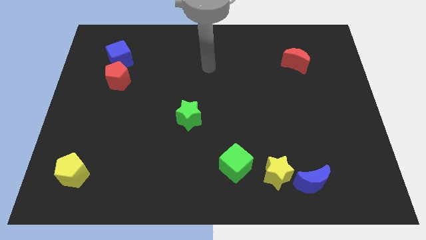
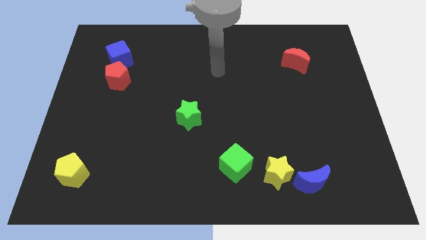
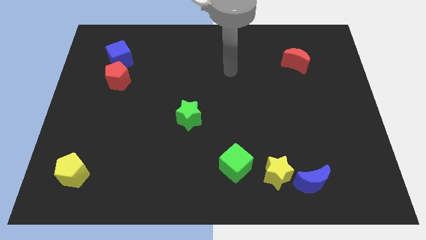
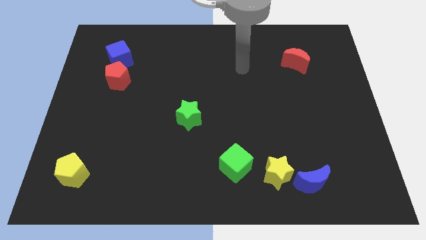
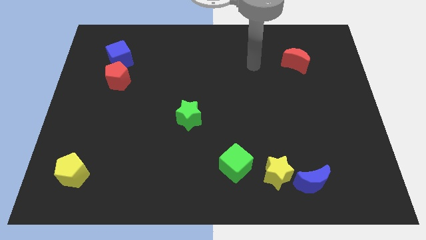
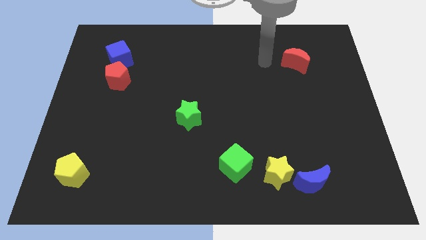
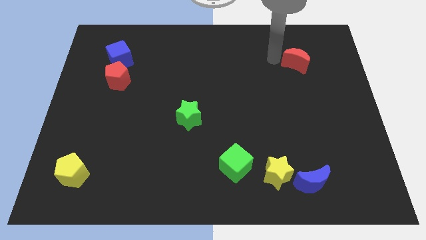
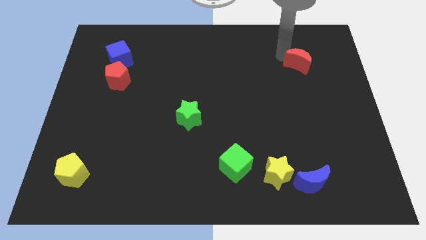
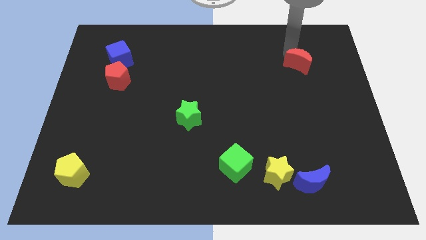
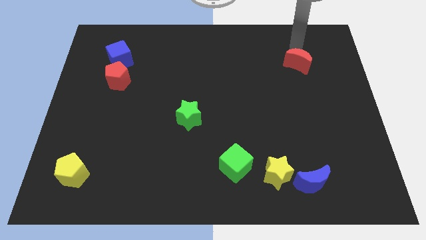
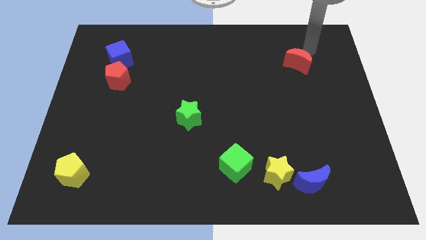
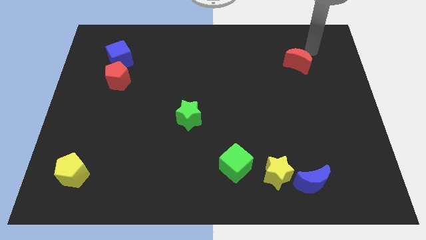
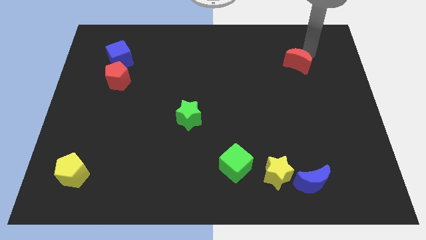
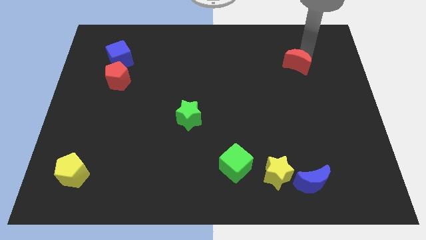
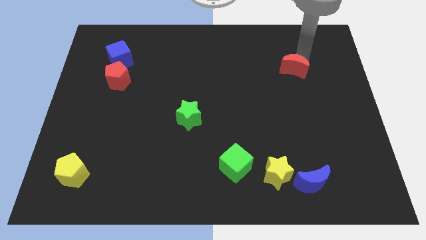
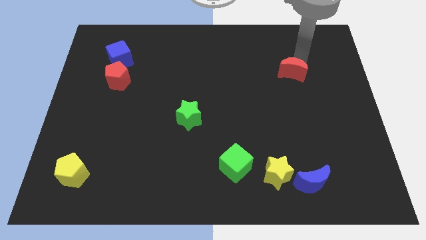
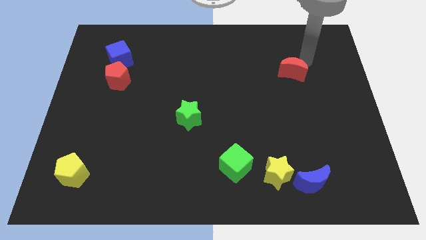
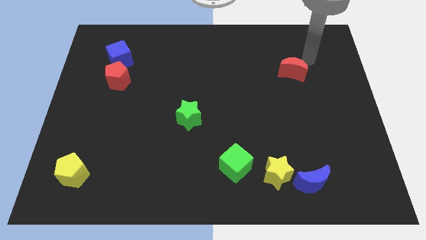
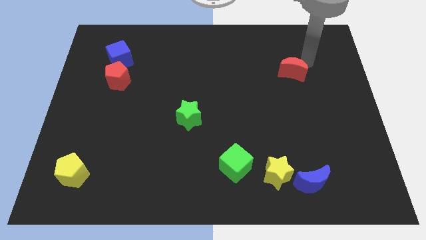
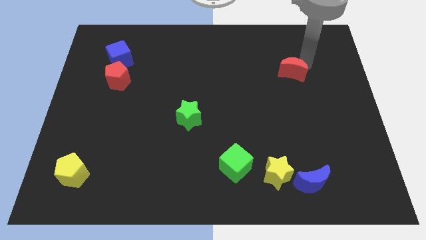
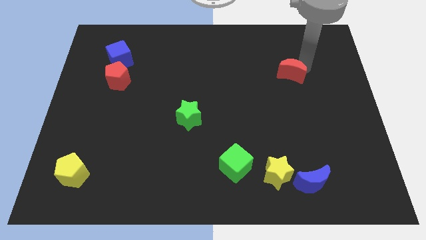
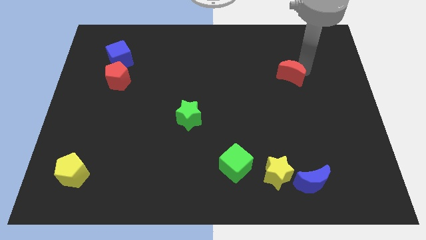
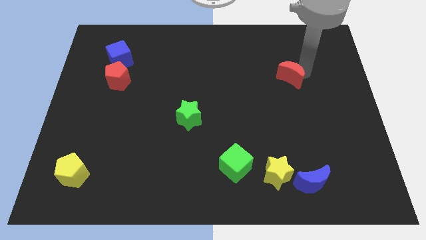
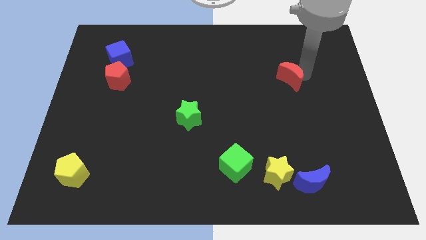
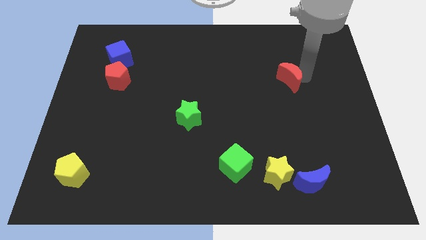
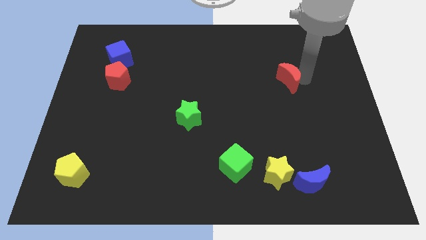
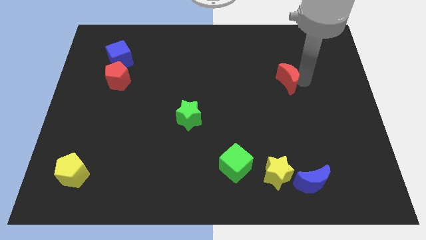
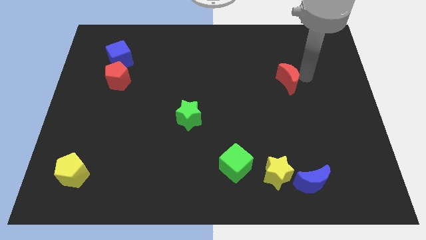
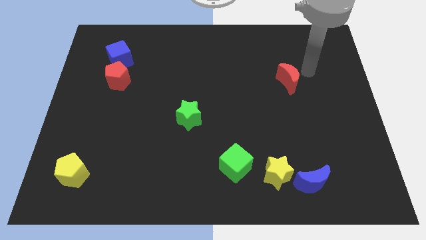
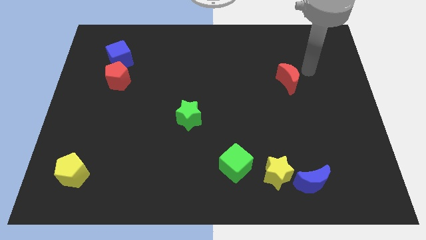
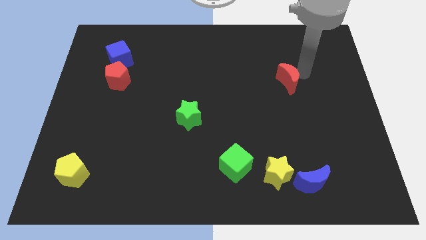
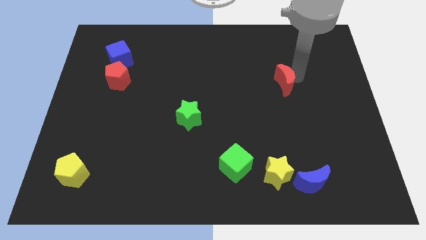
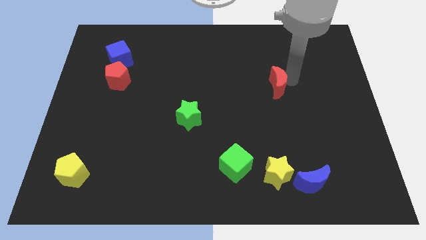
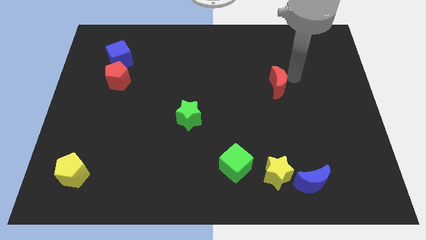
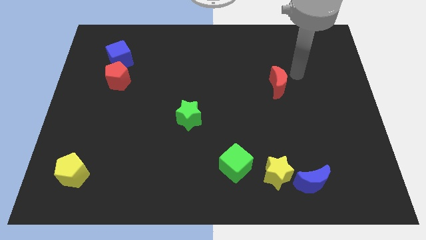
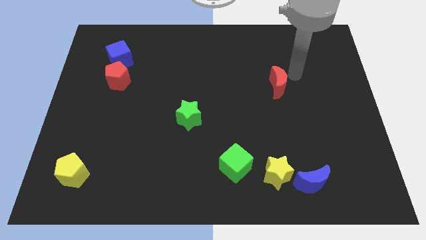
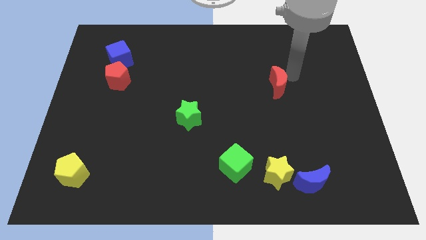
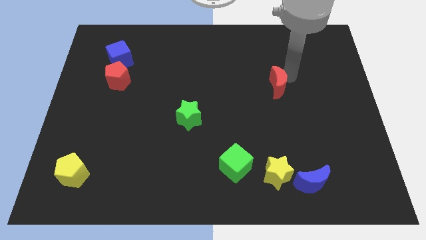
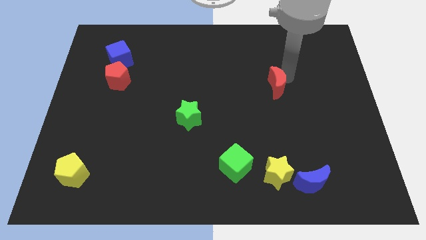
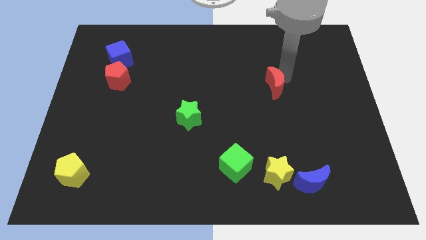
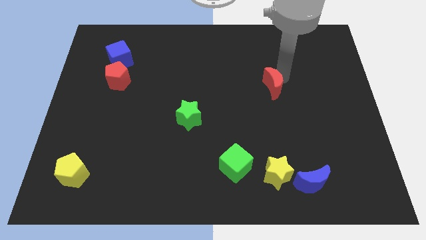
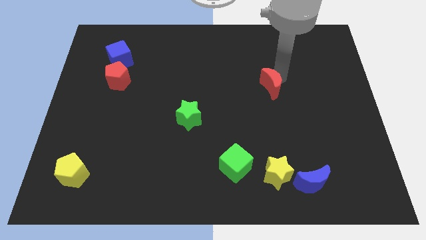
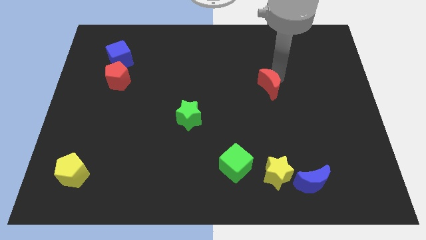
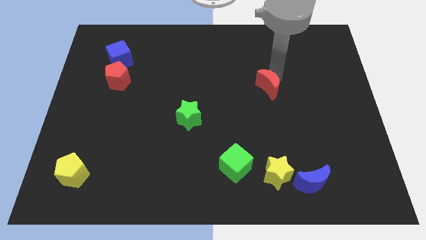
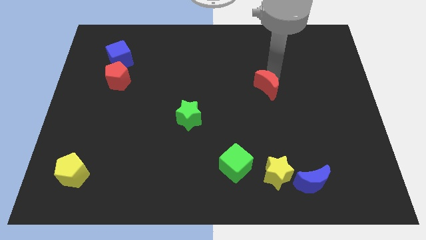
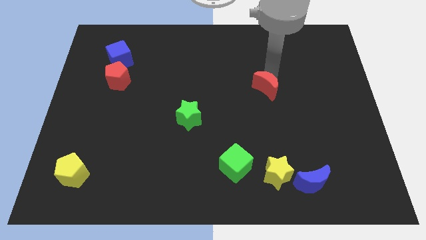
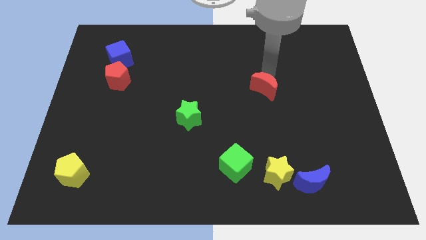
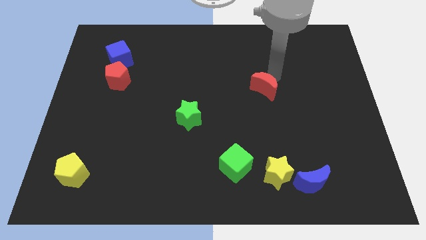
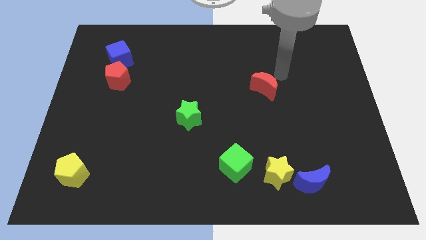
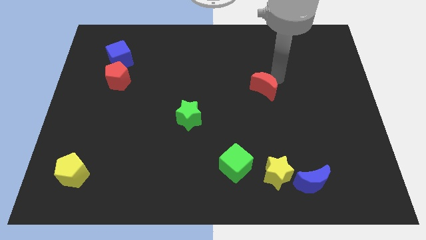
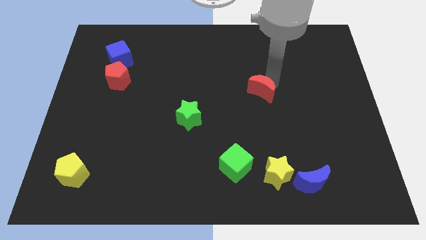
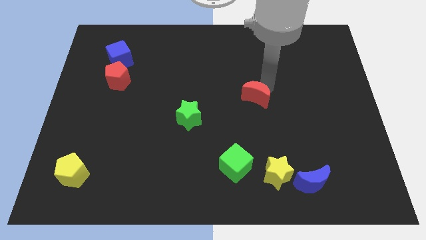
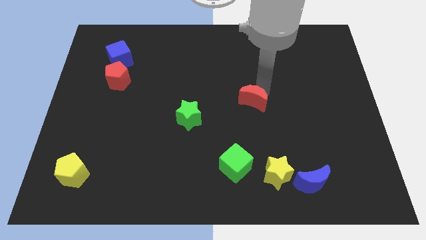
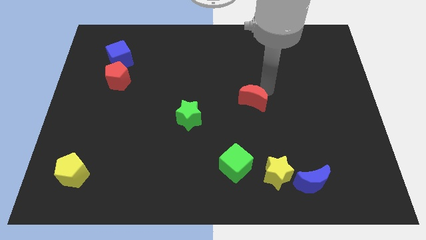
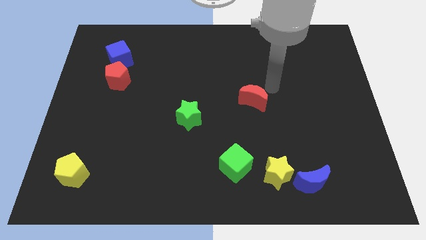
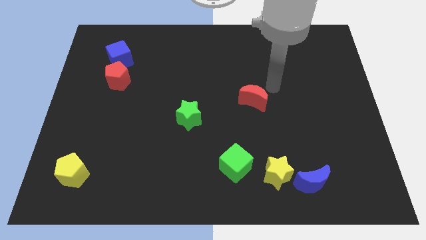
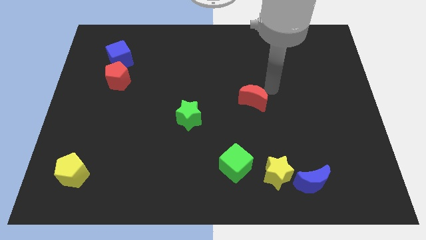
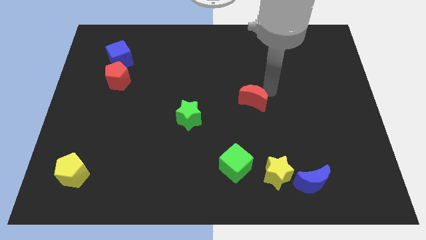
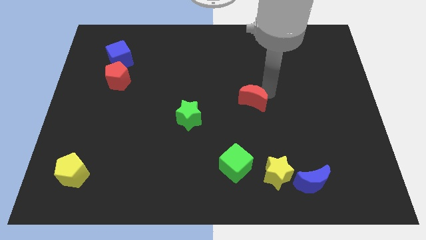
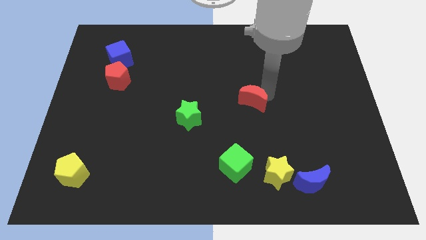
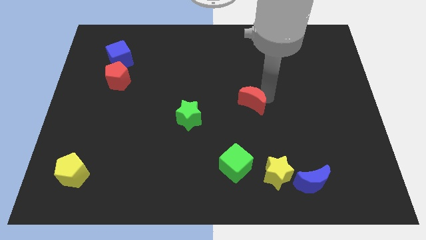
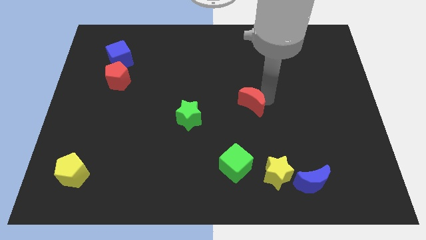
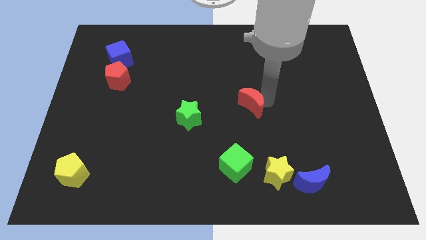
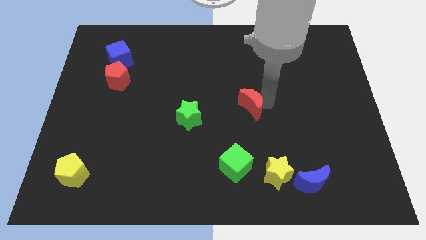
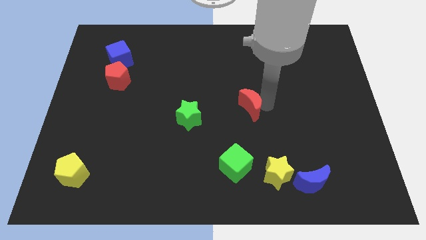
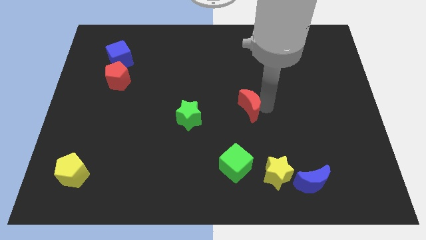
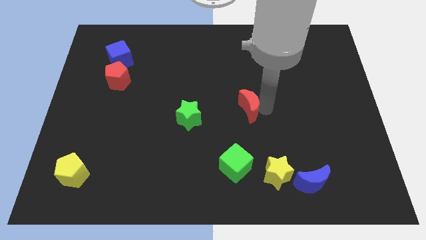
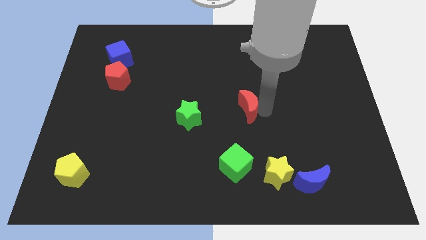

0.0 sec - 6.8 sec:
slide the red moon downwards and to the left diagonally

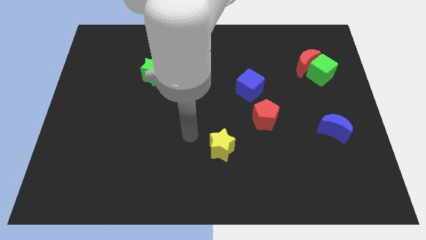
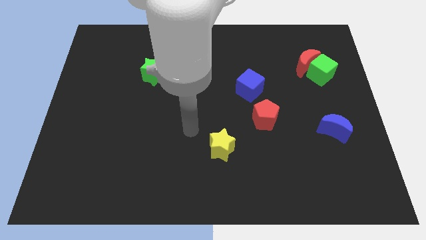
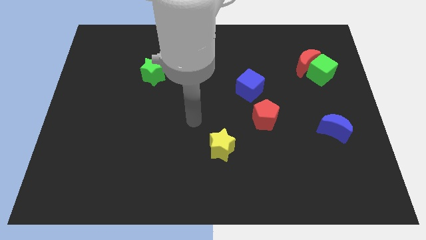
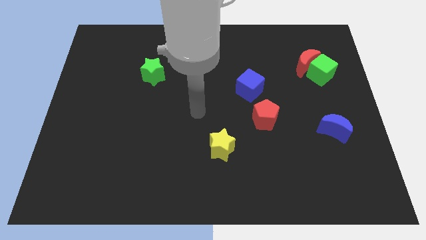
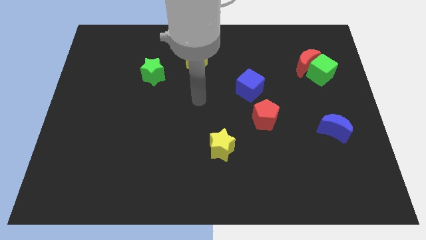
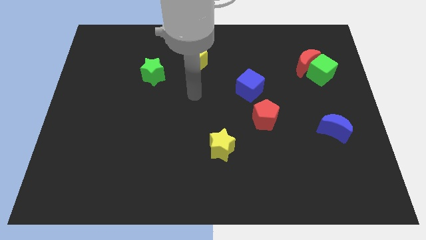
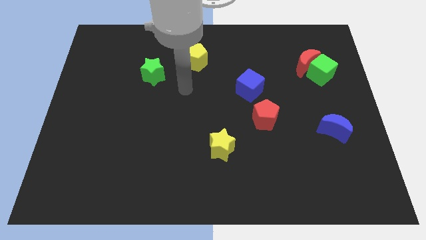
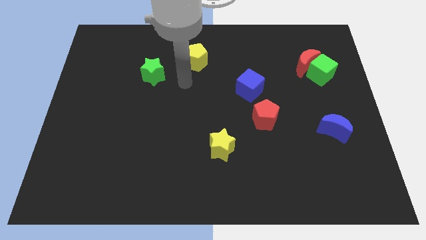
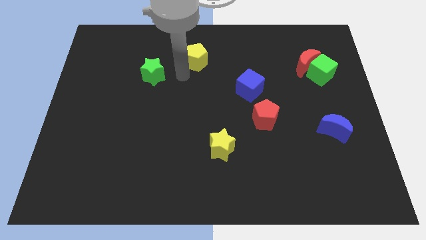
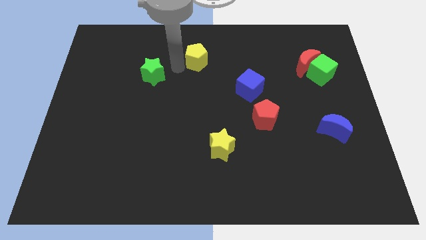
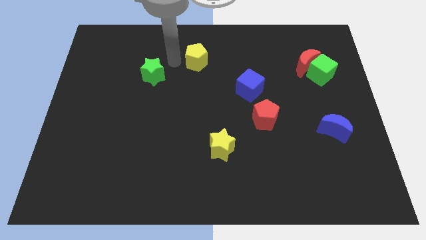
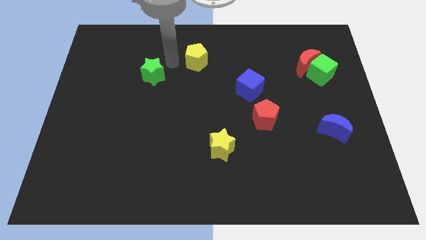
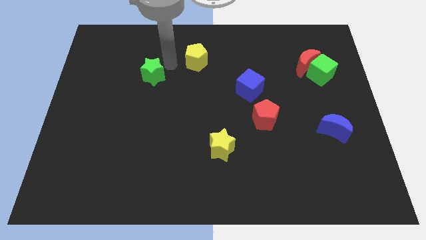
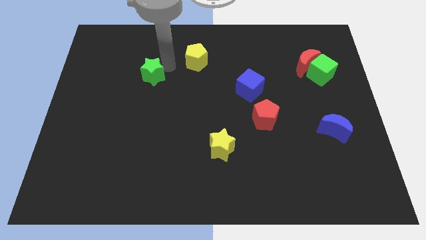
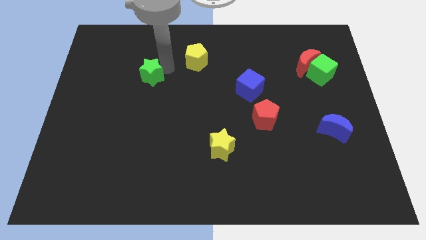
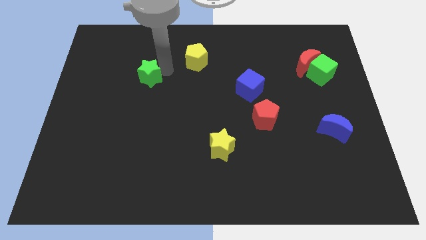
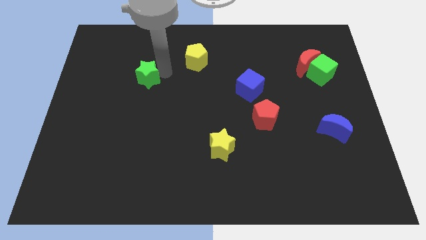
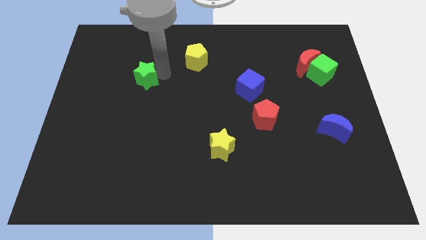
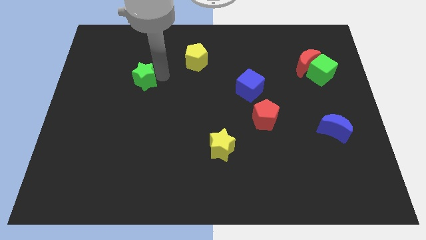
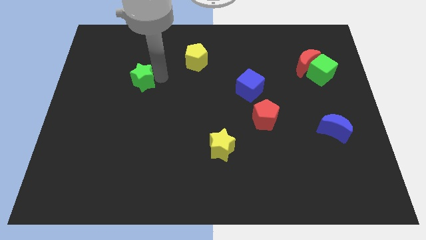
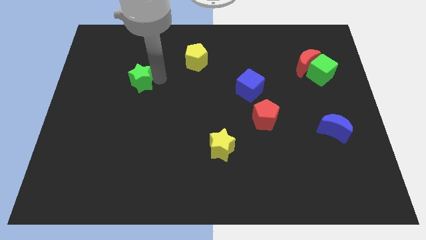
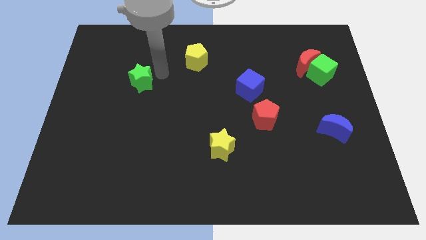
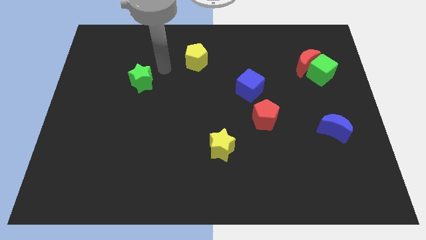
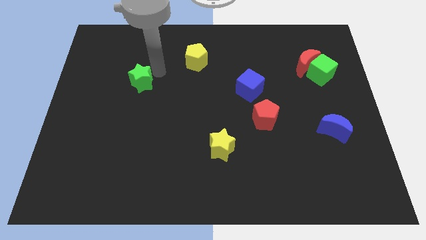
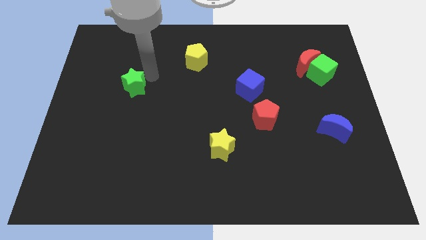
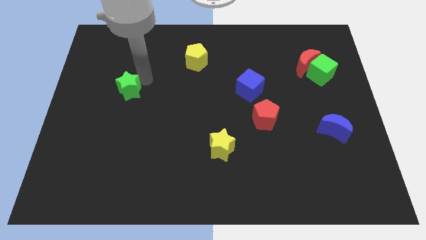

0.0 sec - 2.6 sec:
slightly push the green star downwards and left
